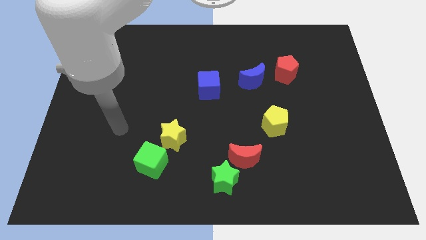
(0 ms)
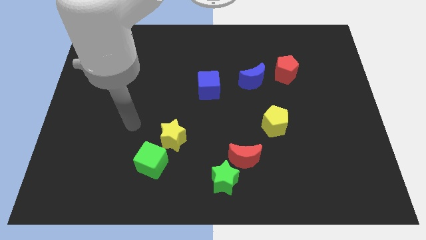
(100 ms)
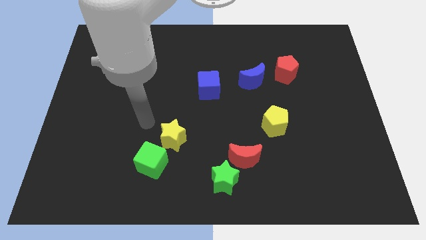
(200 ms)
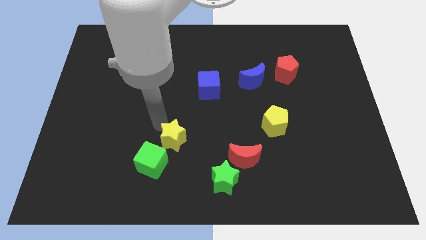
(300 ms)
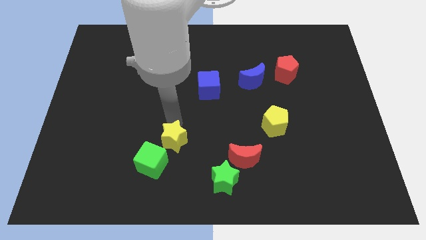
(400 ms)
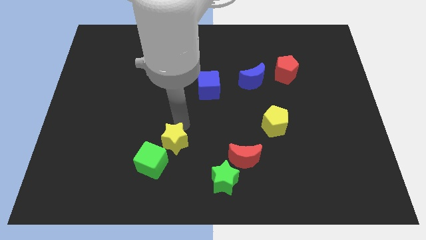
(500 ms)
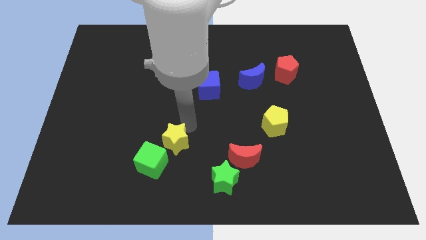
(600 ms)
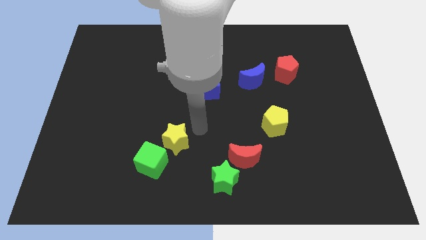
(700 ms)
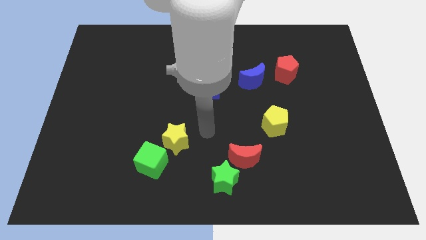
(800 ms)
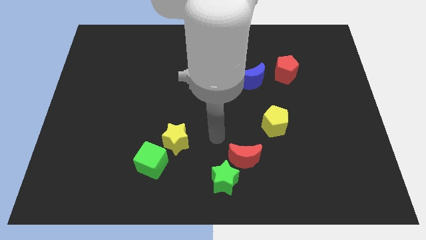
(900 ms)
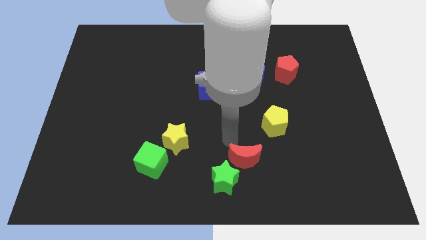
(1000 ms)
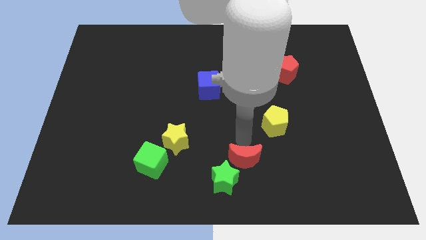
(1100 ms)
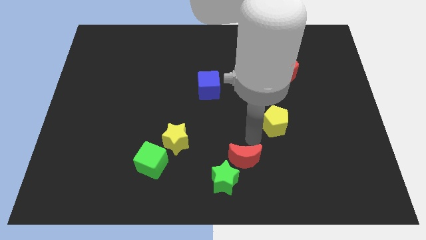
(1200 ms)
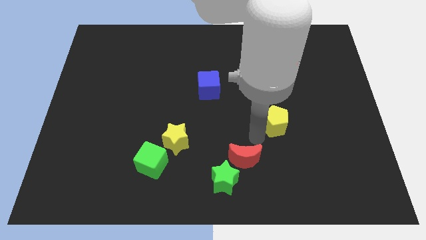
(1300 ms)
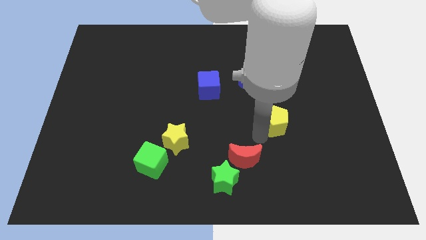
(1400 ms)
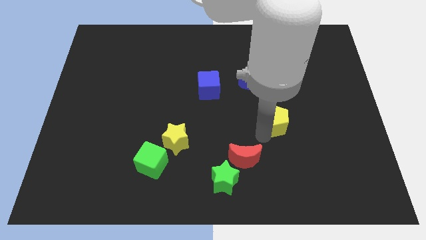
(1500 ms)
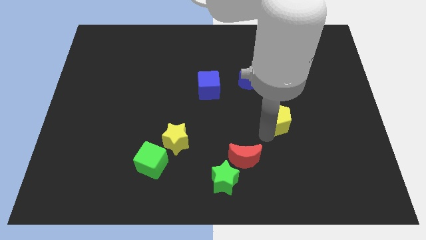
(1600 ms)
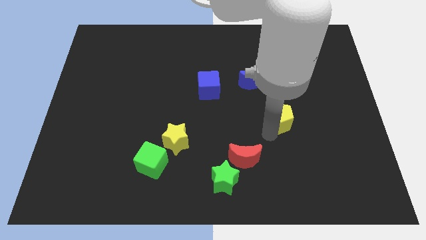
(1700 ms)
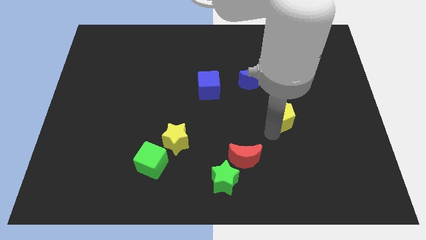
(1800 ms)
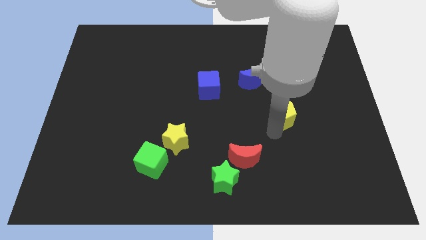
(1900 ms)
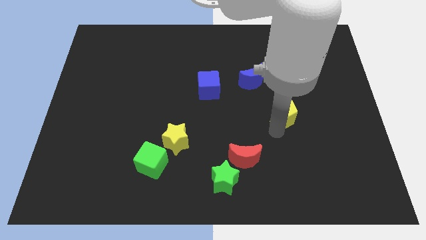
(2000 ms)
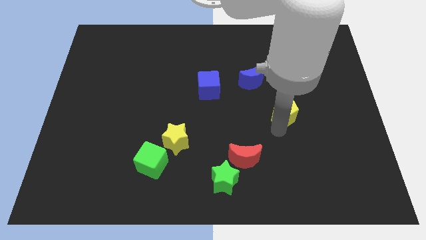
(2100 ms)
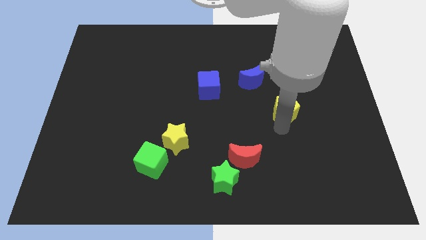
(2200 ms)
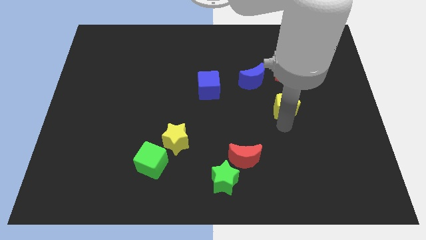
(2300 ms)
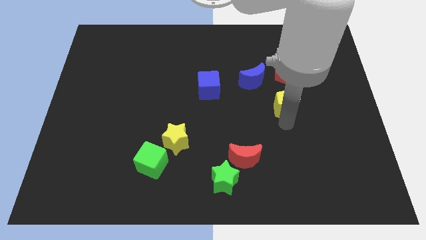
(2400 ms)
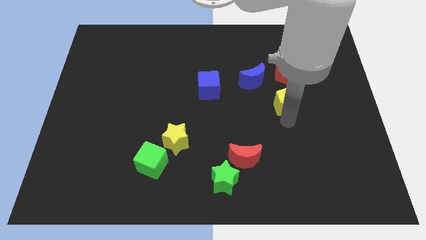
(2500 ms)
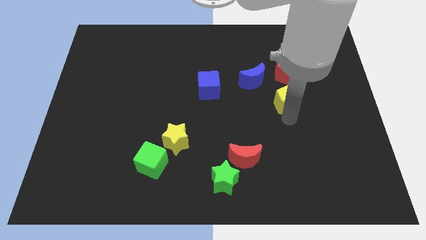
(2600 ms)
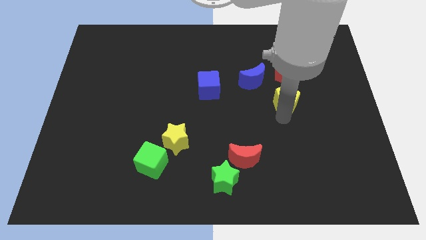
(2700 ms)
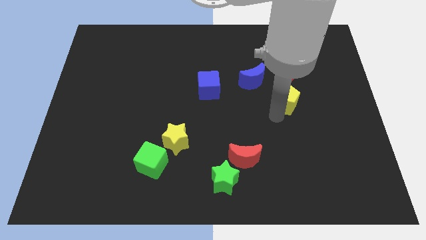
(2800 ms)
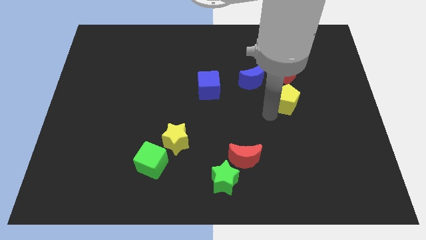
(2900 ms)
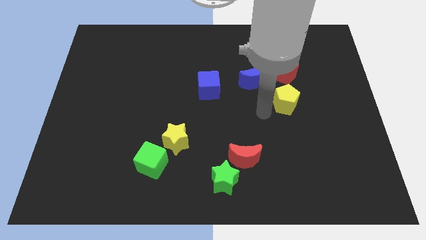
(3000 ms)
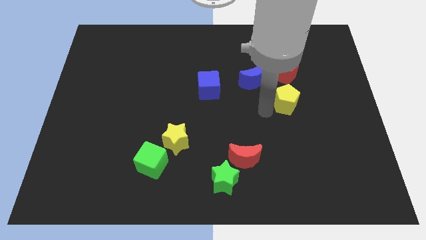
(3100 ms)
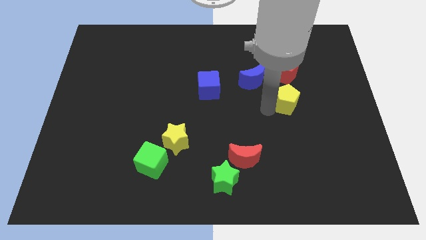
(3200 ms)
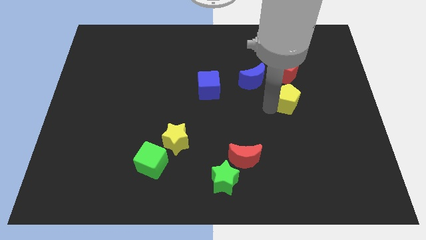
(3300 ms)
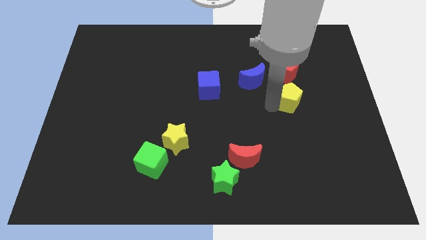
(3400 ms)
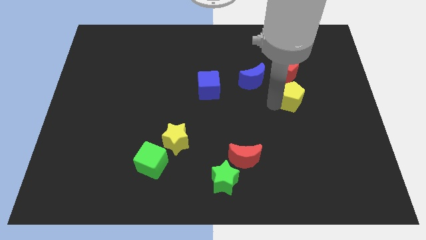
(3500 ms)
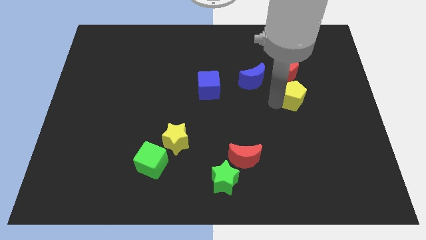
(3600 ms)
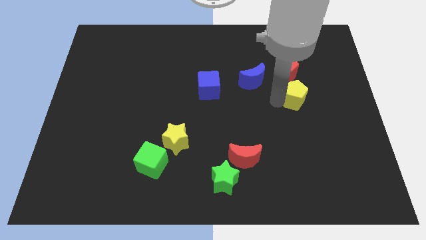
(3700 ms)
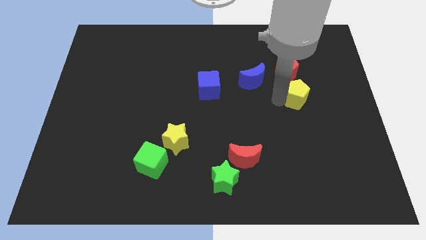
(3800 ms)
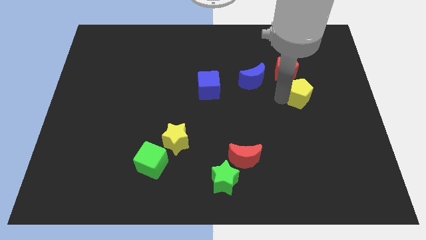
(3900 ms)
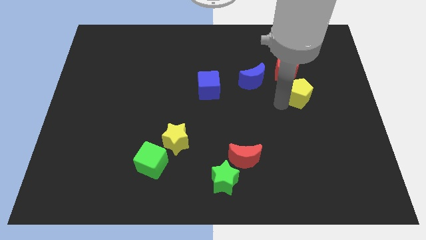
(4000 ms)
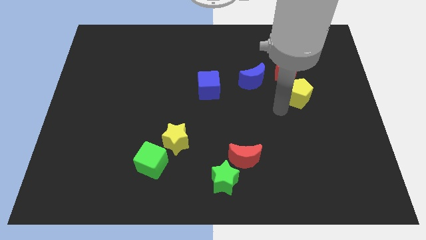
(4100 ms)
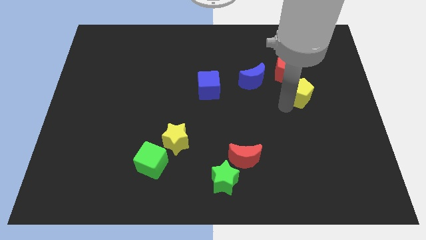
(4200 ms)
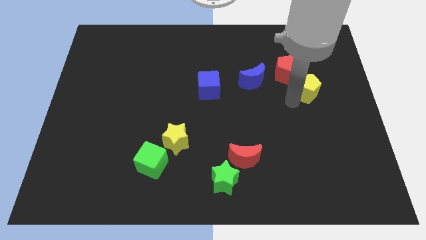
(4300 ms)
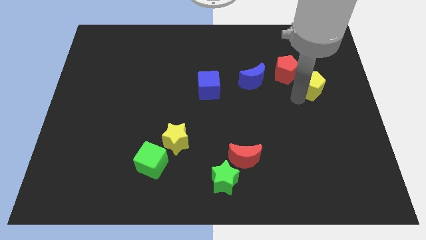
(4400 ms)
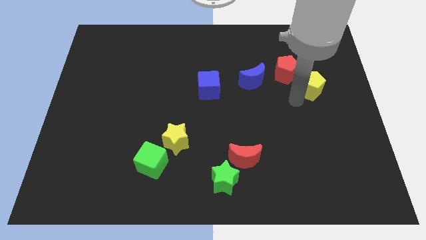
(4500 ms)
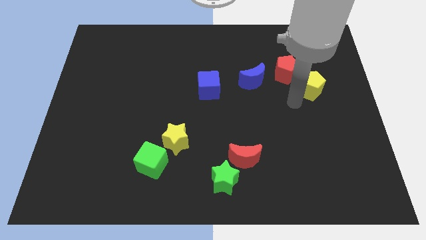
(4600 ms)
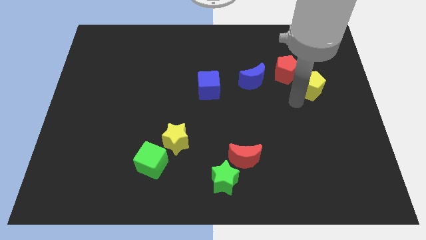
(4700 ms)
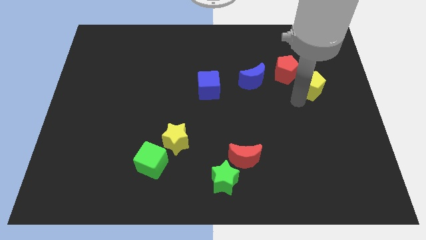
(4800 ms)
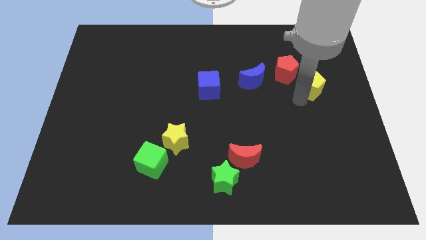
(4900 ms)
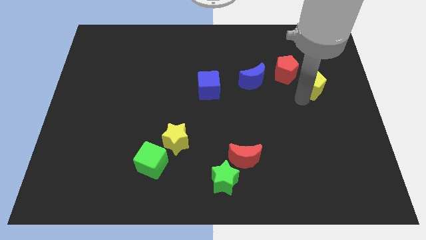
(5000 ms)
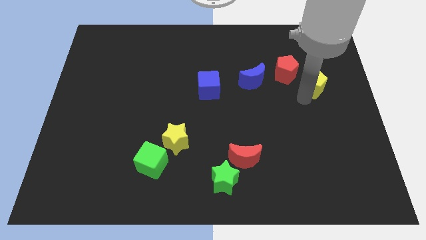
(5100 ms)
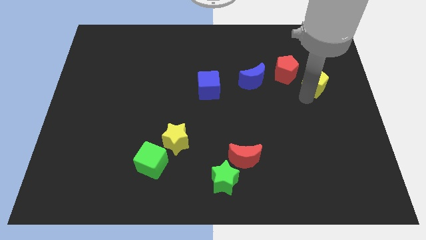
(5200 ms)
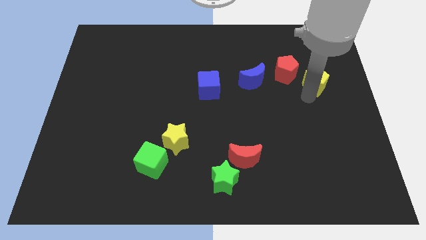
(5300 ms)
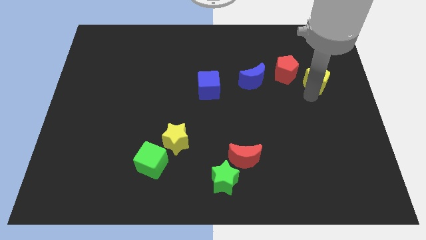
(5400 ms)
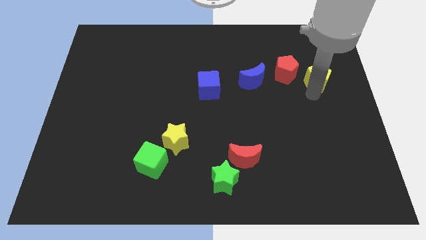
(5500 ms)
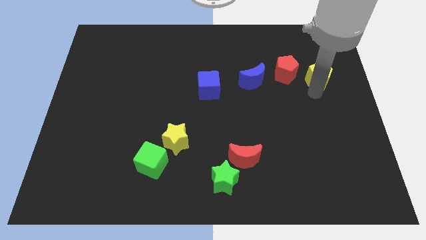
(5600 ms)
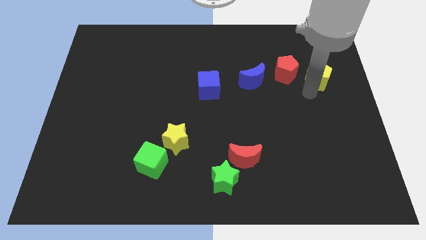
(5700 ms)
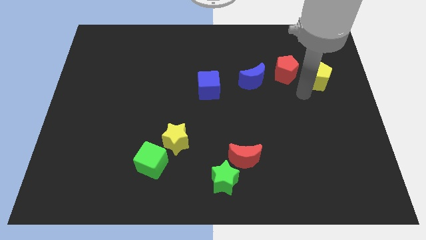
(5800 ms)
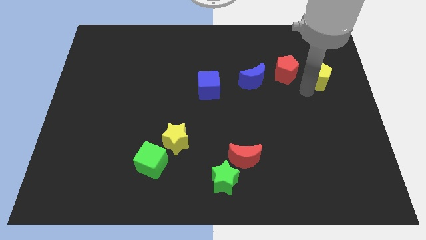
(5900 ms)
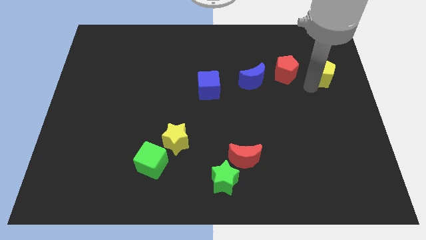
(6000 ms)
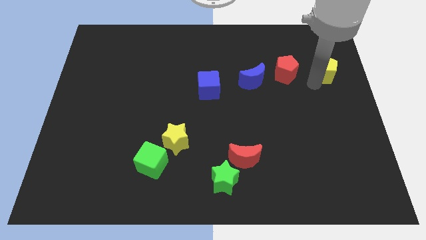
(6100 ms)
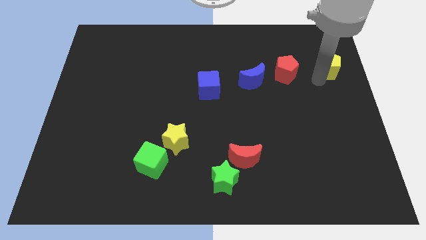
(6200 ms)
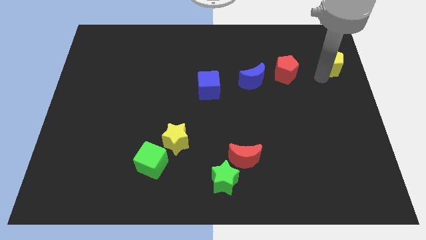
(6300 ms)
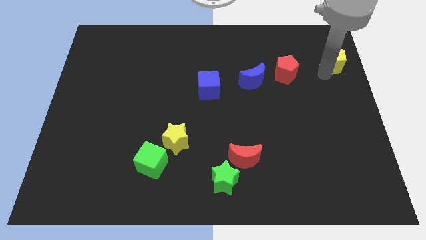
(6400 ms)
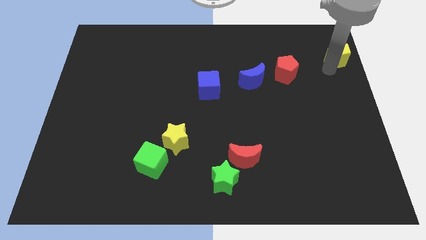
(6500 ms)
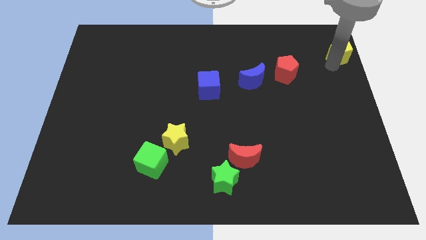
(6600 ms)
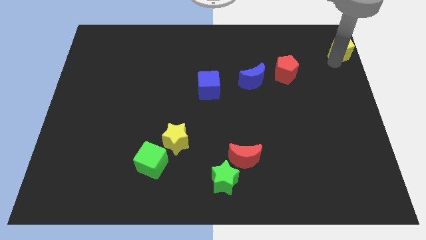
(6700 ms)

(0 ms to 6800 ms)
put the yellow pentagon to the top right of the board

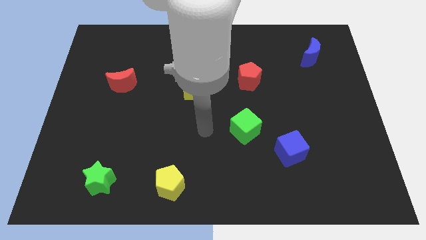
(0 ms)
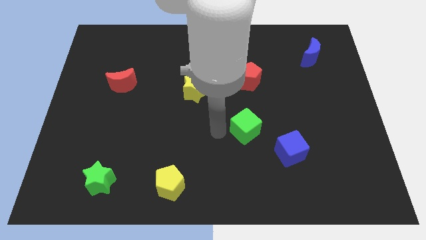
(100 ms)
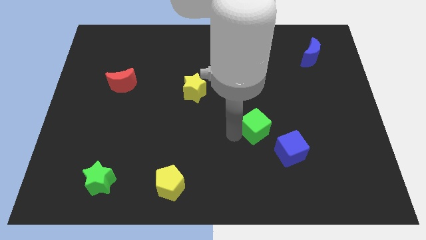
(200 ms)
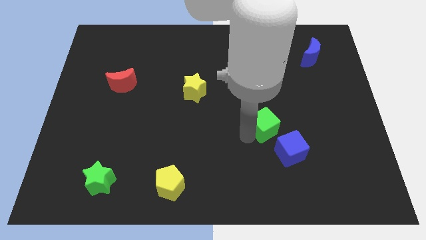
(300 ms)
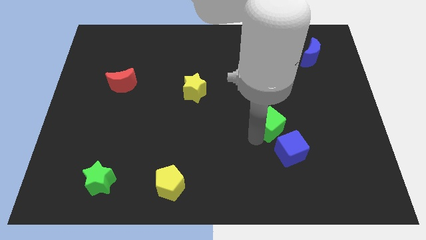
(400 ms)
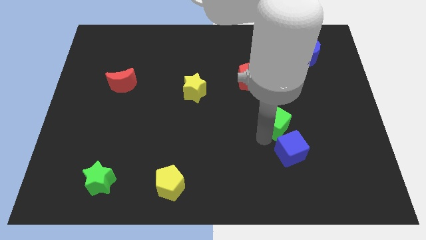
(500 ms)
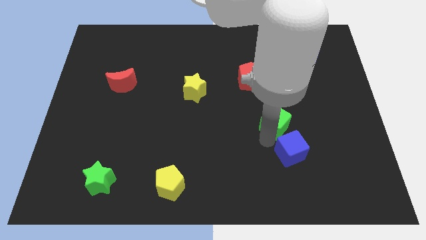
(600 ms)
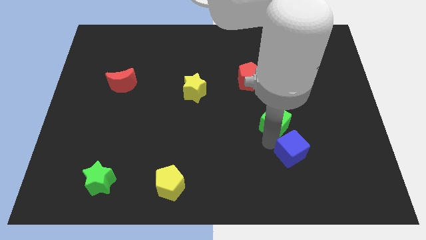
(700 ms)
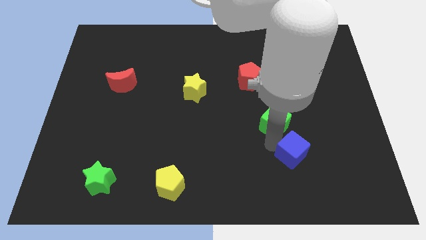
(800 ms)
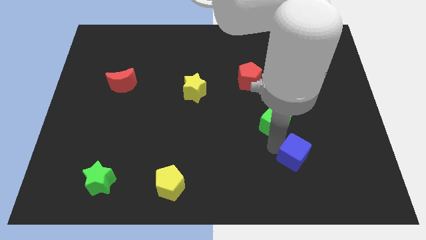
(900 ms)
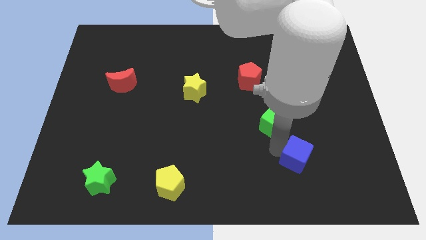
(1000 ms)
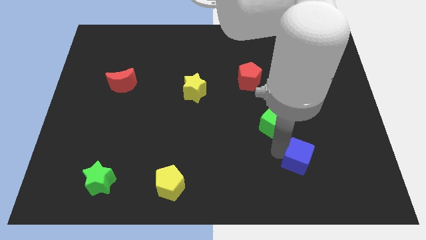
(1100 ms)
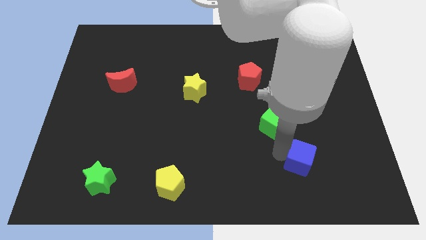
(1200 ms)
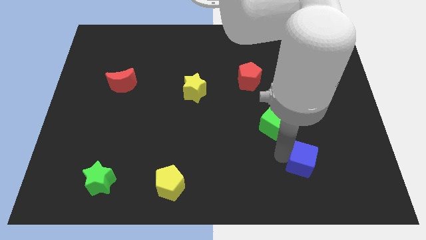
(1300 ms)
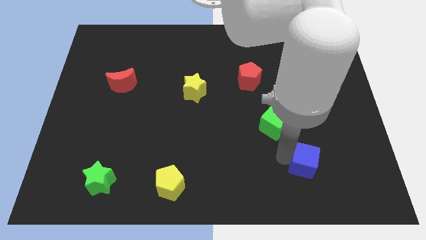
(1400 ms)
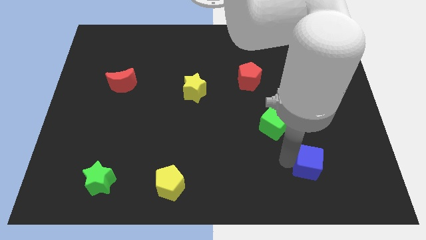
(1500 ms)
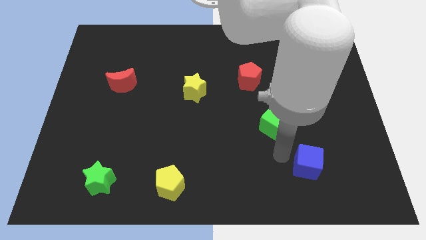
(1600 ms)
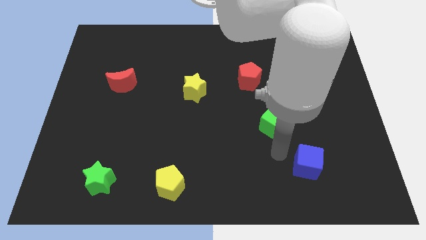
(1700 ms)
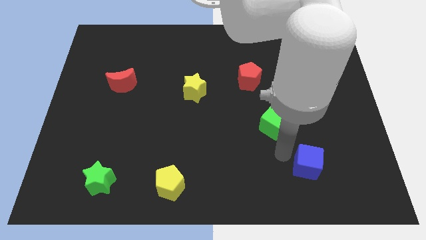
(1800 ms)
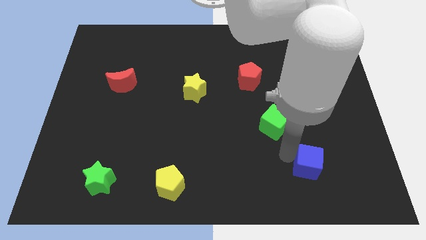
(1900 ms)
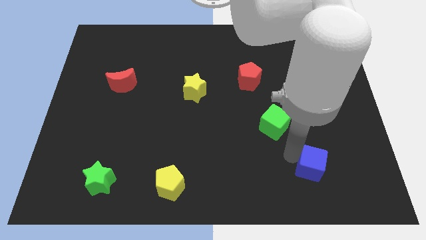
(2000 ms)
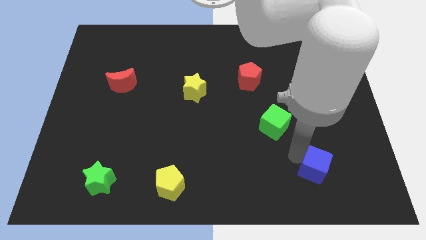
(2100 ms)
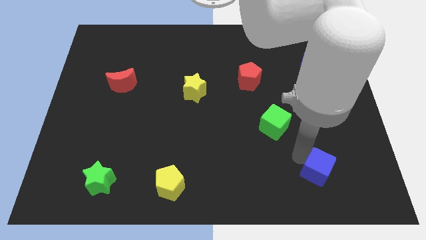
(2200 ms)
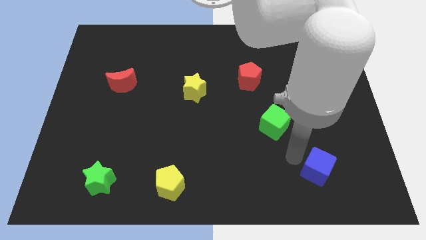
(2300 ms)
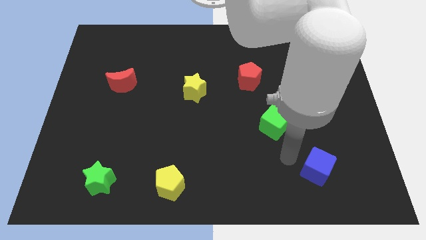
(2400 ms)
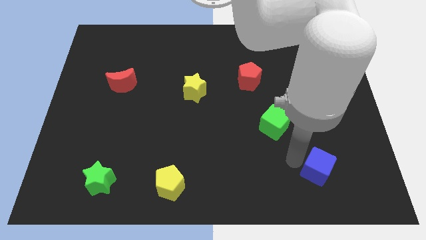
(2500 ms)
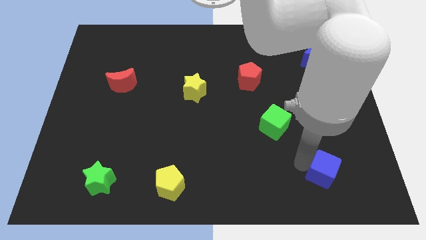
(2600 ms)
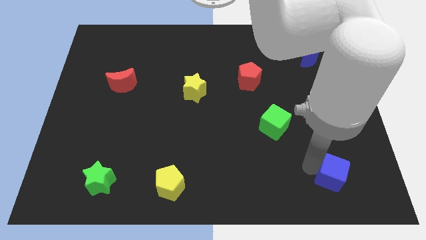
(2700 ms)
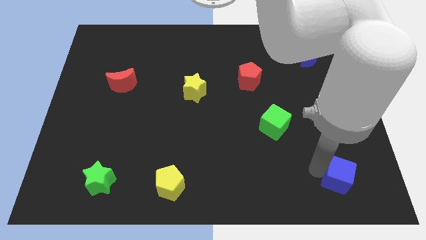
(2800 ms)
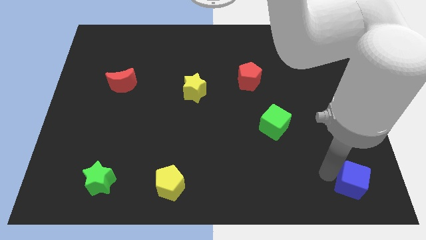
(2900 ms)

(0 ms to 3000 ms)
push the blue cube to the bottom right of the board
